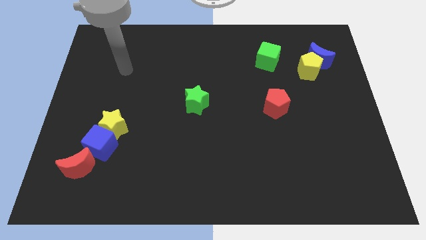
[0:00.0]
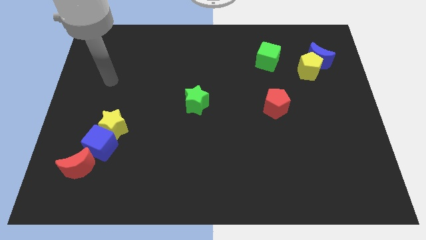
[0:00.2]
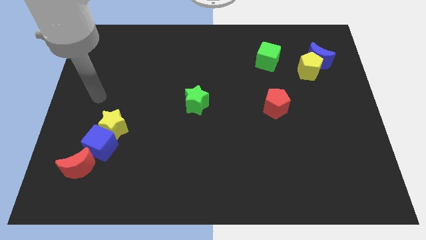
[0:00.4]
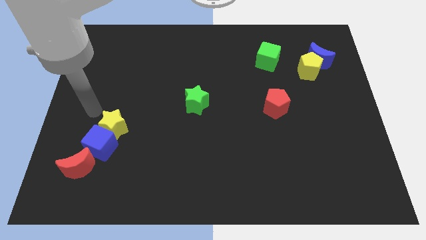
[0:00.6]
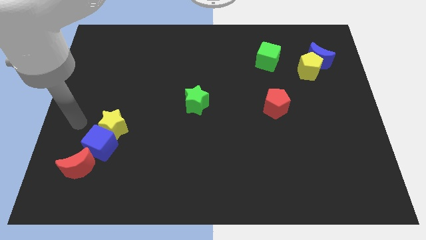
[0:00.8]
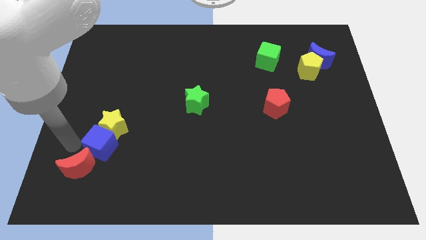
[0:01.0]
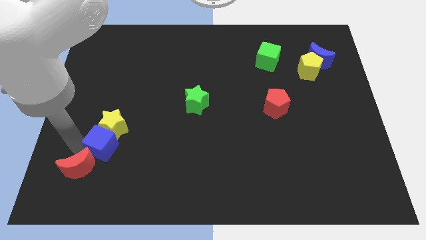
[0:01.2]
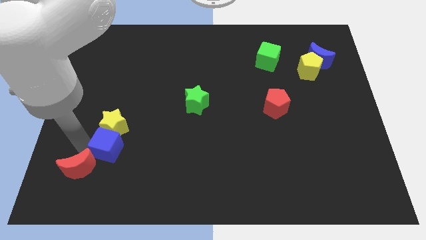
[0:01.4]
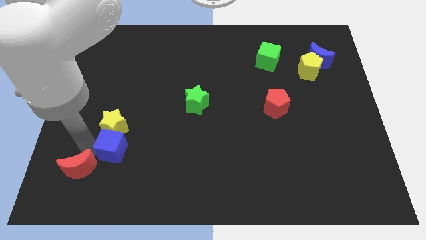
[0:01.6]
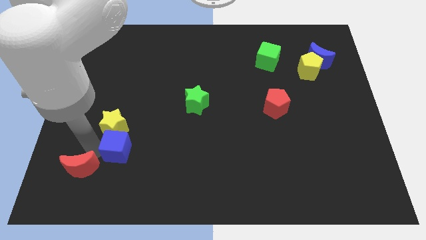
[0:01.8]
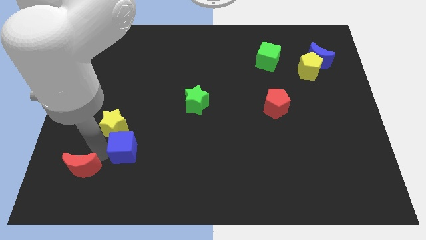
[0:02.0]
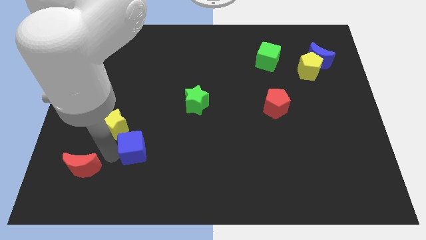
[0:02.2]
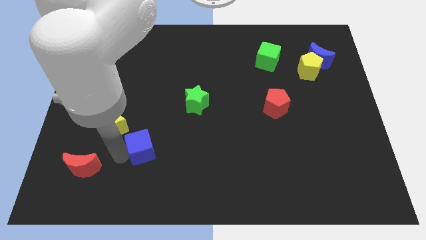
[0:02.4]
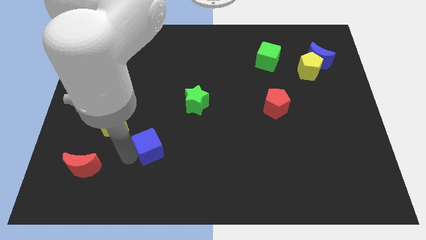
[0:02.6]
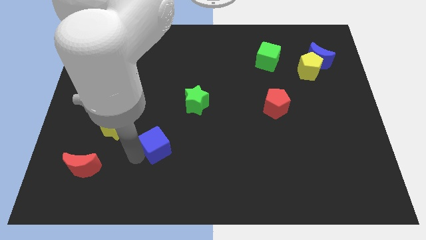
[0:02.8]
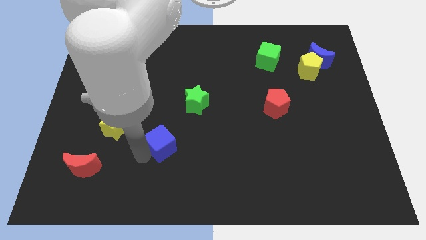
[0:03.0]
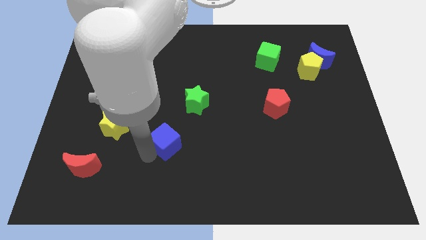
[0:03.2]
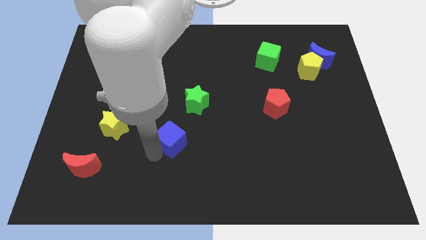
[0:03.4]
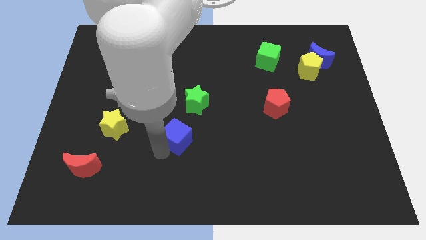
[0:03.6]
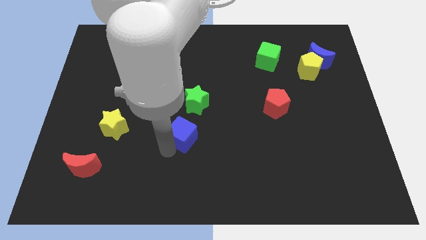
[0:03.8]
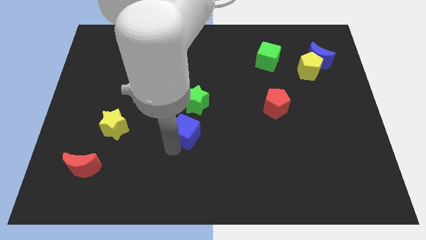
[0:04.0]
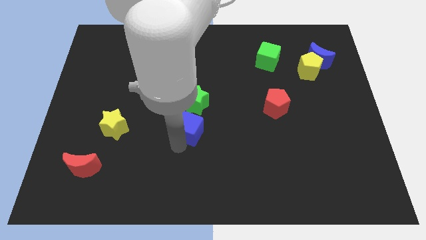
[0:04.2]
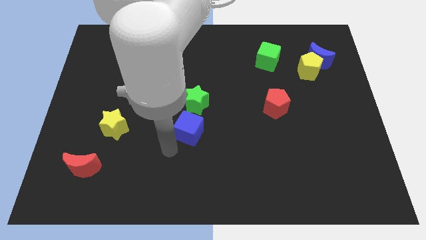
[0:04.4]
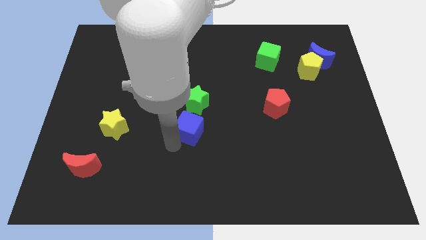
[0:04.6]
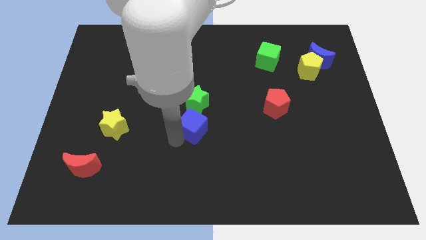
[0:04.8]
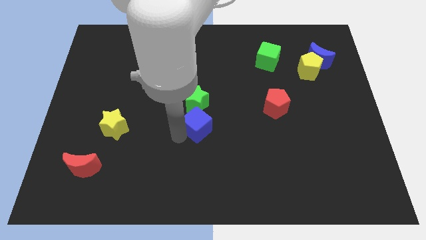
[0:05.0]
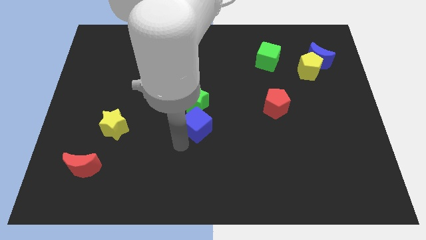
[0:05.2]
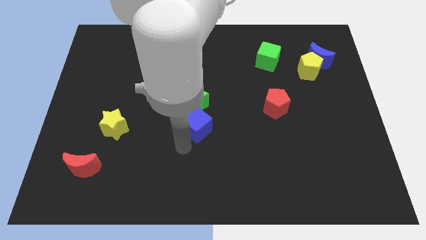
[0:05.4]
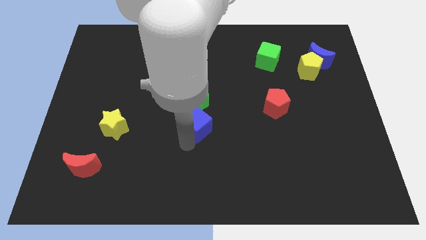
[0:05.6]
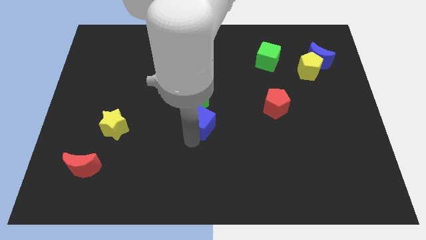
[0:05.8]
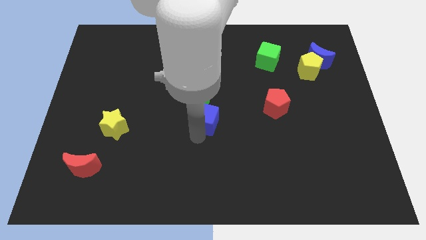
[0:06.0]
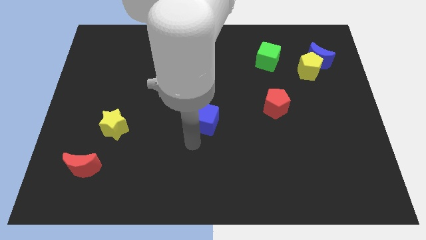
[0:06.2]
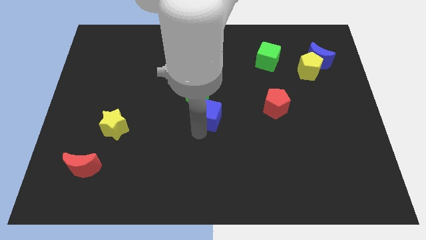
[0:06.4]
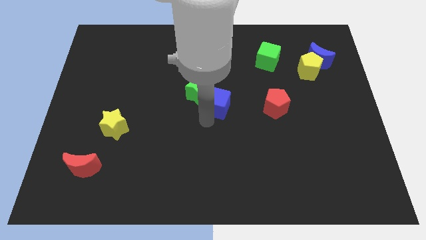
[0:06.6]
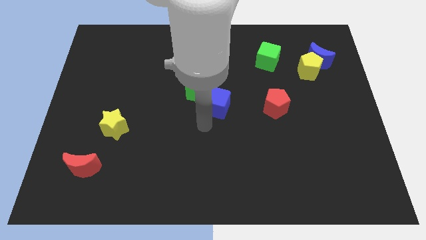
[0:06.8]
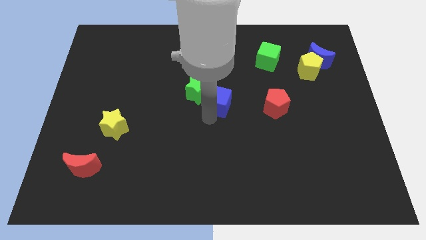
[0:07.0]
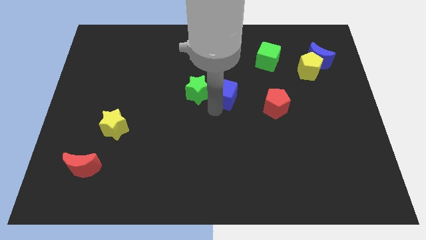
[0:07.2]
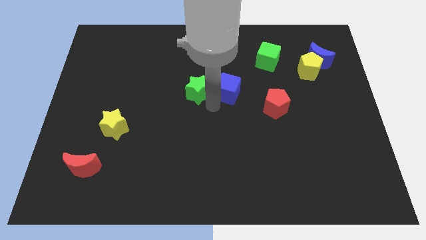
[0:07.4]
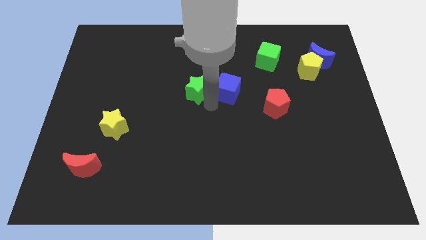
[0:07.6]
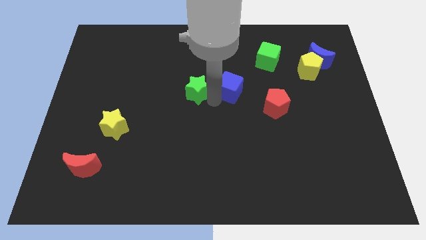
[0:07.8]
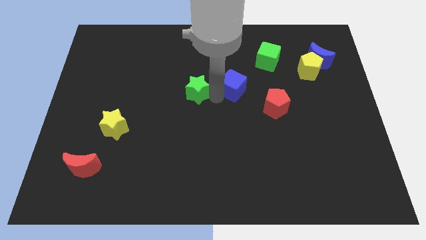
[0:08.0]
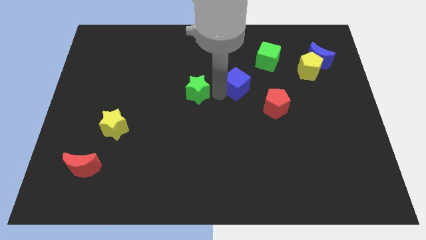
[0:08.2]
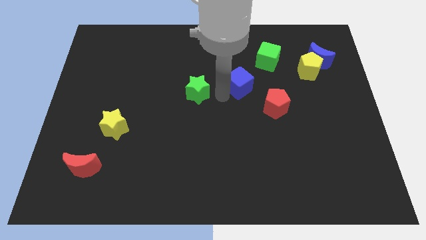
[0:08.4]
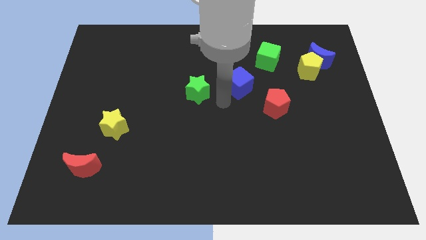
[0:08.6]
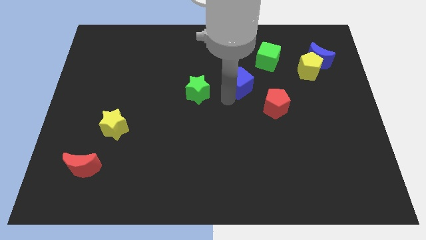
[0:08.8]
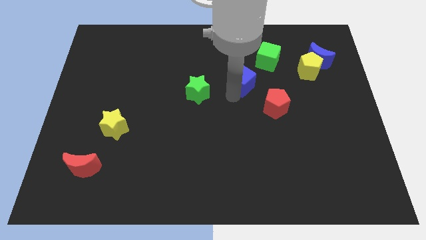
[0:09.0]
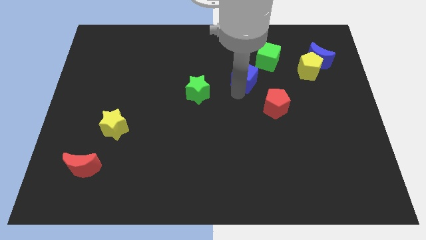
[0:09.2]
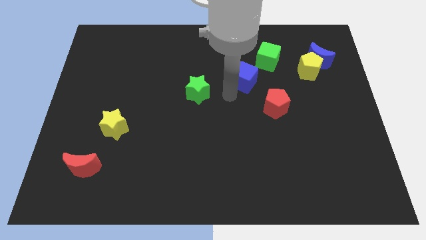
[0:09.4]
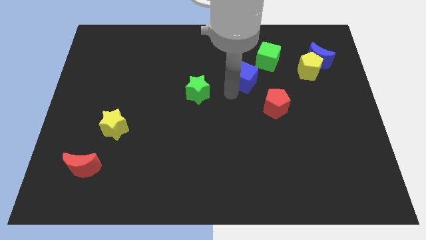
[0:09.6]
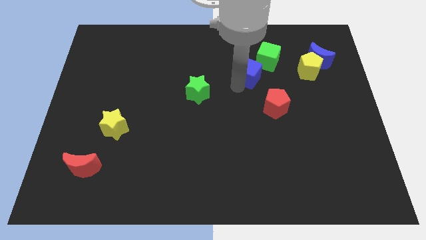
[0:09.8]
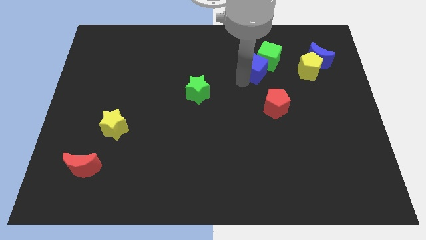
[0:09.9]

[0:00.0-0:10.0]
move the blue cube to the green cube

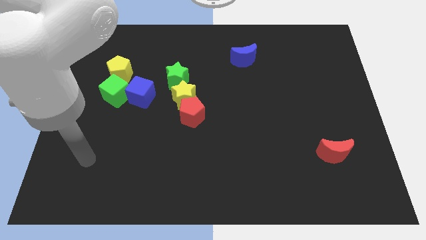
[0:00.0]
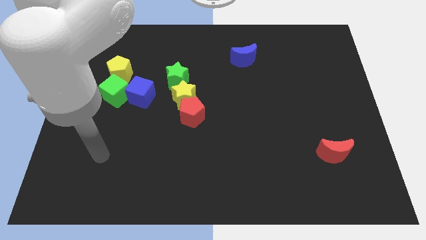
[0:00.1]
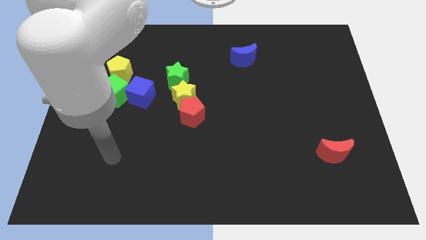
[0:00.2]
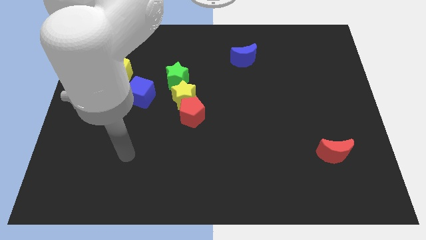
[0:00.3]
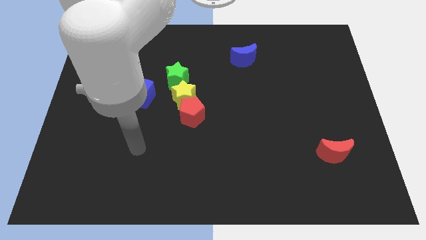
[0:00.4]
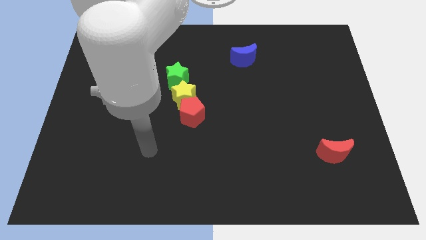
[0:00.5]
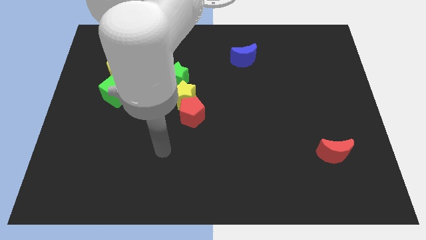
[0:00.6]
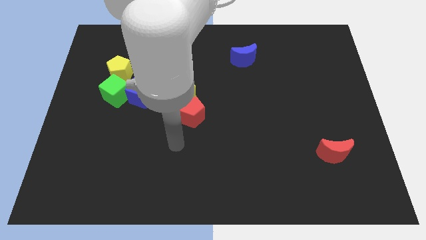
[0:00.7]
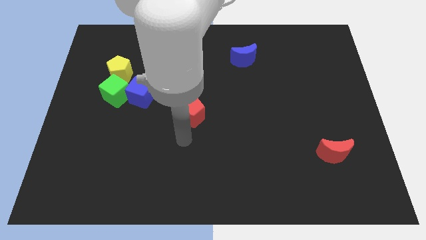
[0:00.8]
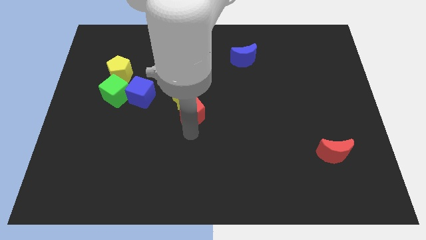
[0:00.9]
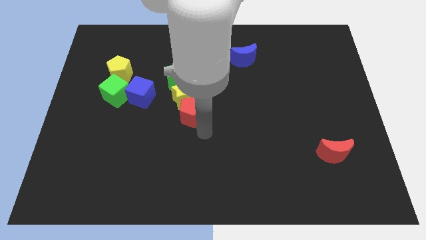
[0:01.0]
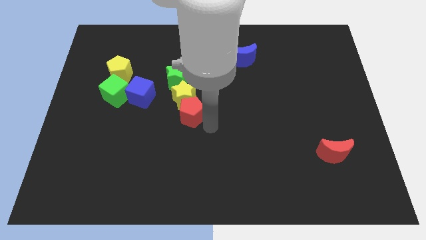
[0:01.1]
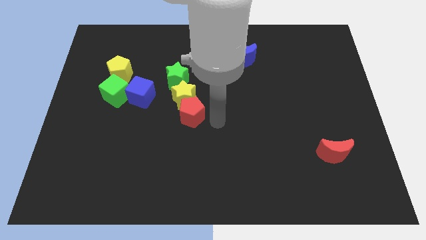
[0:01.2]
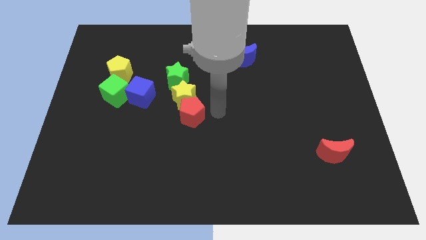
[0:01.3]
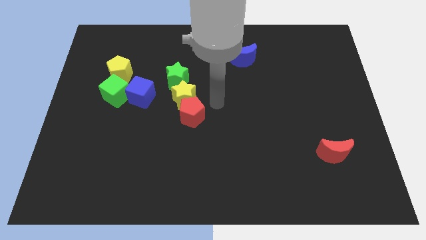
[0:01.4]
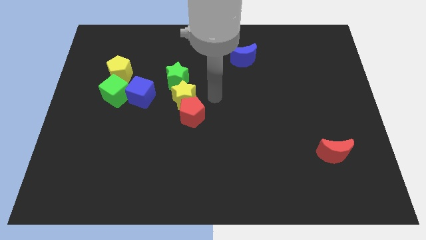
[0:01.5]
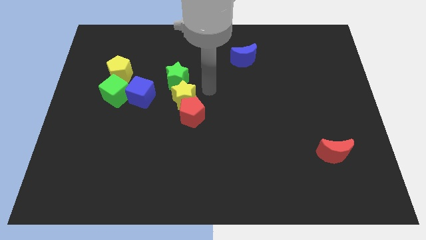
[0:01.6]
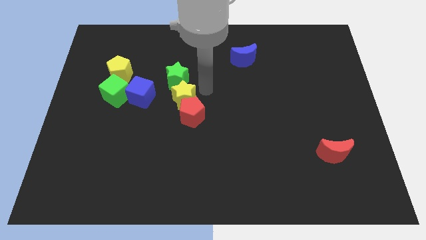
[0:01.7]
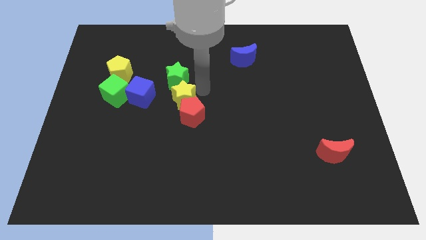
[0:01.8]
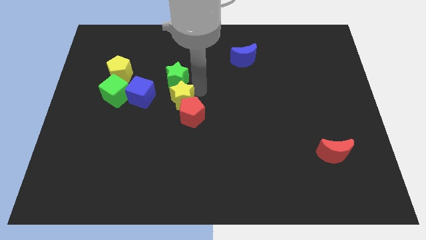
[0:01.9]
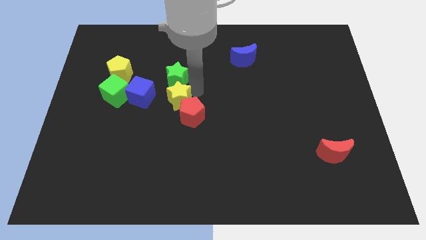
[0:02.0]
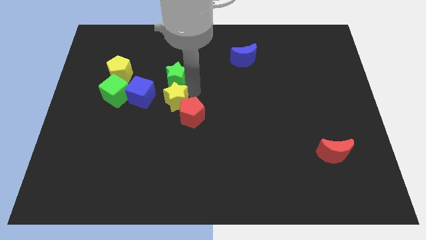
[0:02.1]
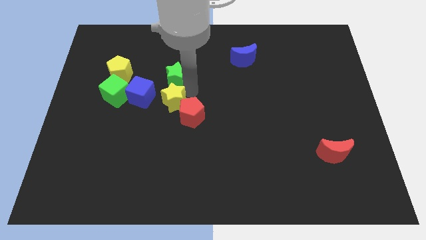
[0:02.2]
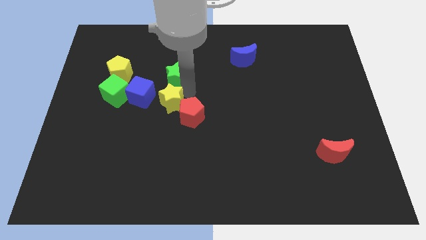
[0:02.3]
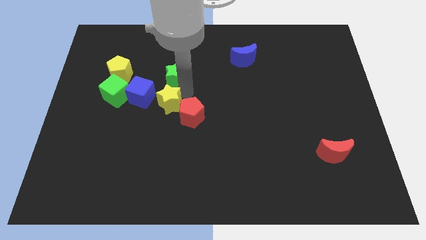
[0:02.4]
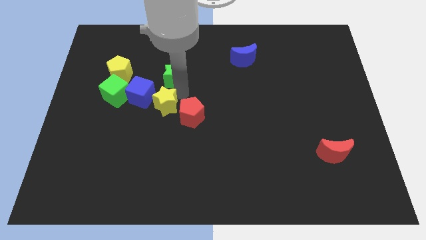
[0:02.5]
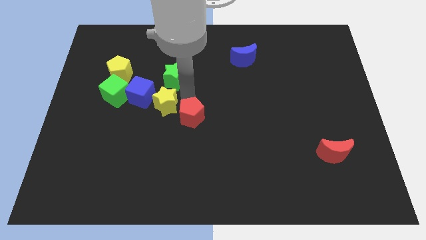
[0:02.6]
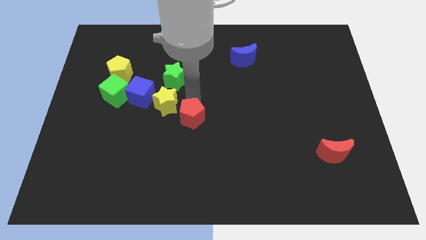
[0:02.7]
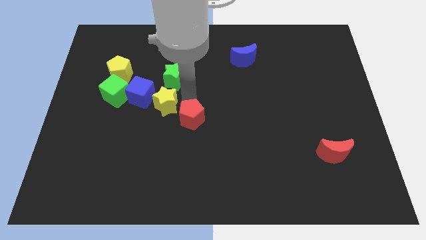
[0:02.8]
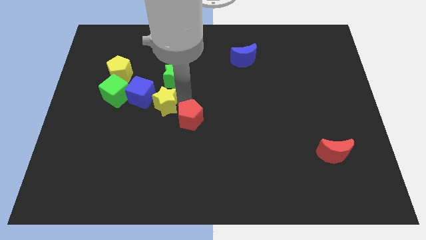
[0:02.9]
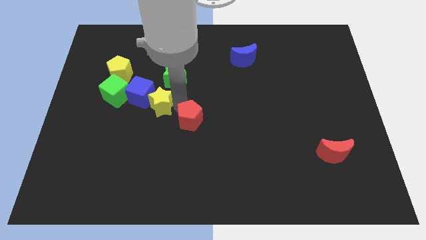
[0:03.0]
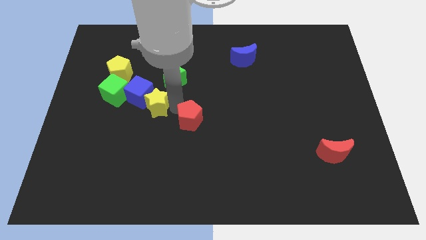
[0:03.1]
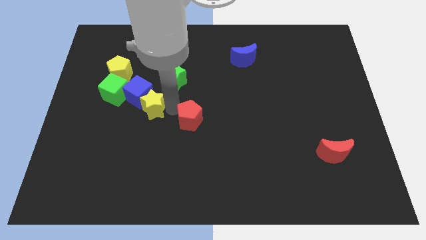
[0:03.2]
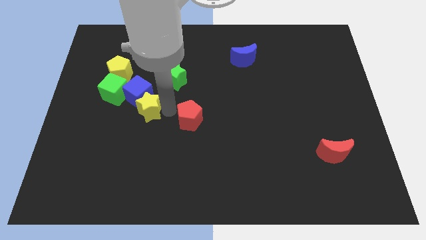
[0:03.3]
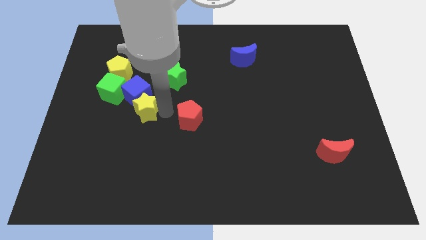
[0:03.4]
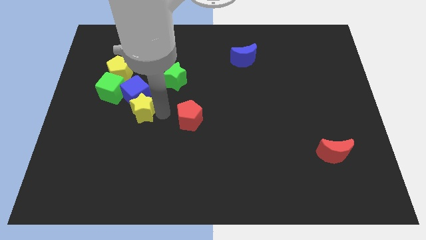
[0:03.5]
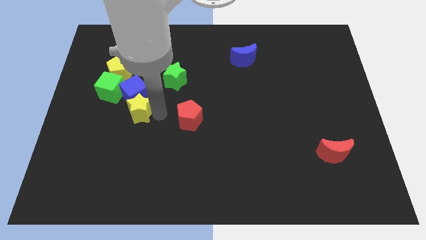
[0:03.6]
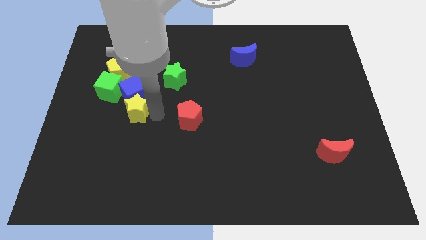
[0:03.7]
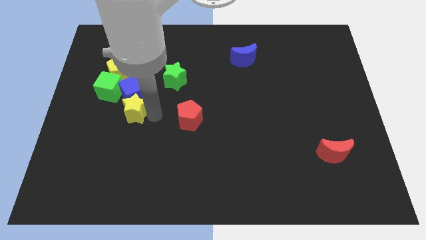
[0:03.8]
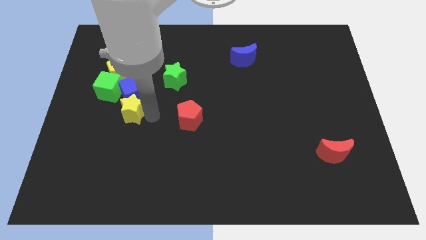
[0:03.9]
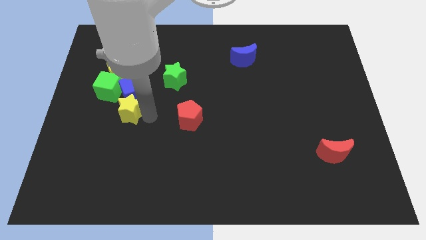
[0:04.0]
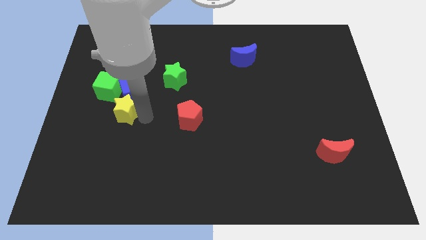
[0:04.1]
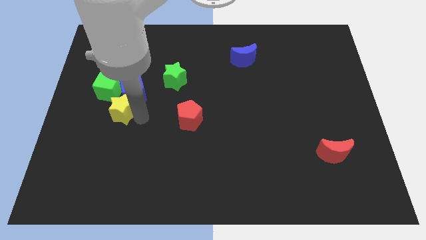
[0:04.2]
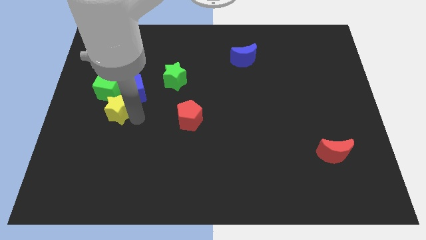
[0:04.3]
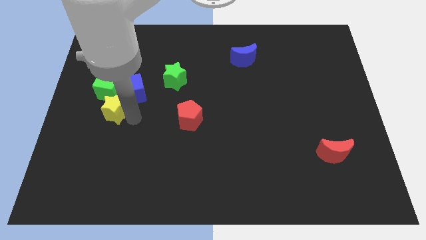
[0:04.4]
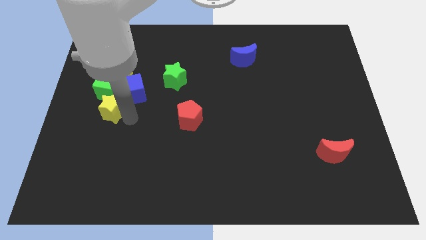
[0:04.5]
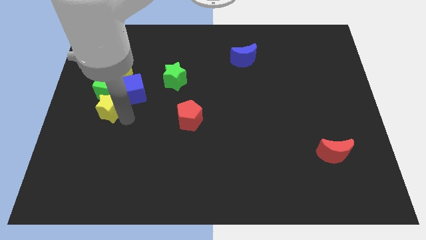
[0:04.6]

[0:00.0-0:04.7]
move the yellow star towards the green cube
